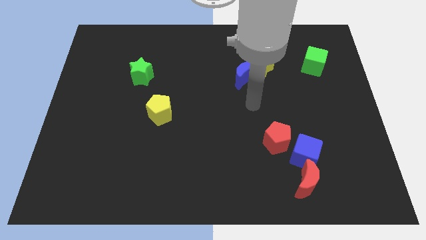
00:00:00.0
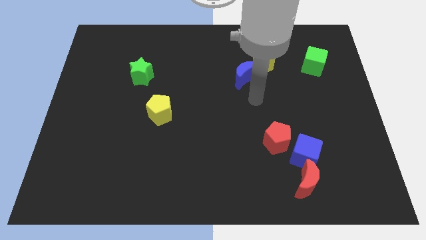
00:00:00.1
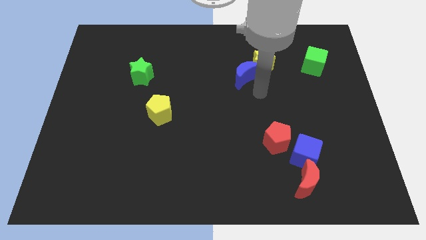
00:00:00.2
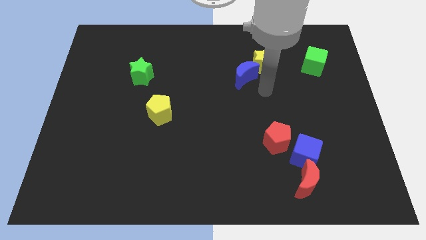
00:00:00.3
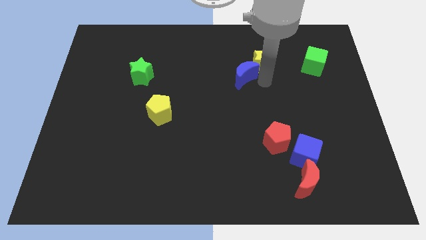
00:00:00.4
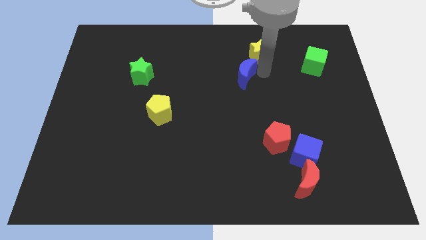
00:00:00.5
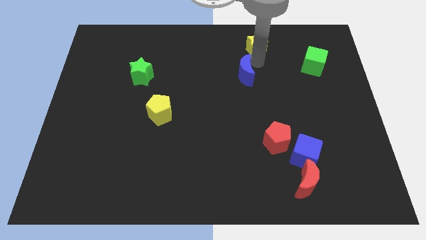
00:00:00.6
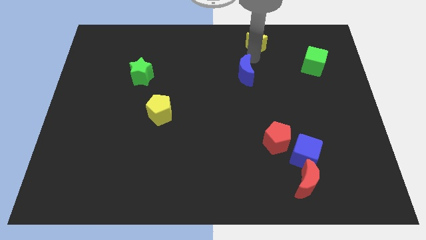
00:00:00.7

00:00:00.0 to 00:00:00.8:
pull the blue moon apart from the yellow star

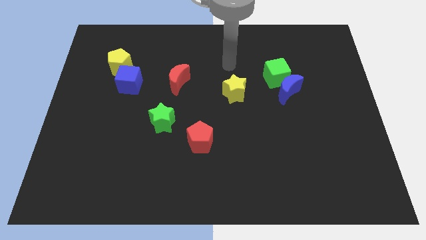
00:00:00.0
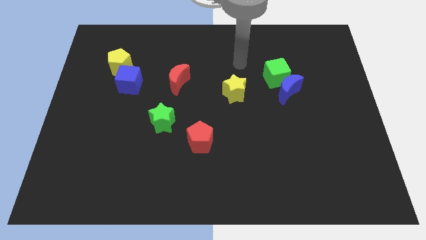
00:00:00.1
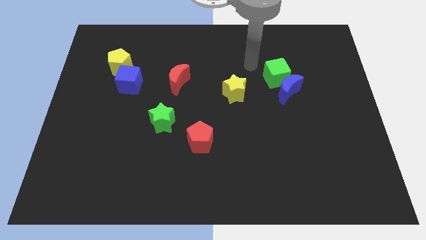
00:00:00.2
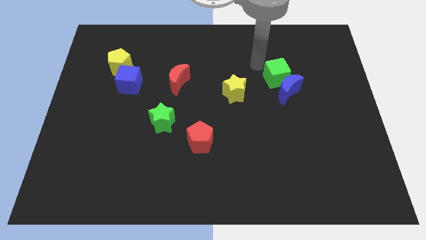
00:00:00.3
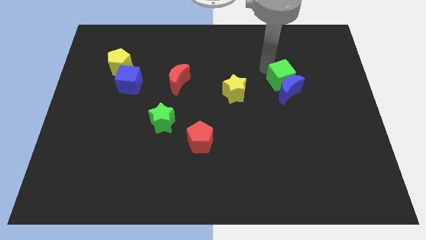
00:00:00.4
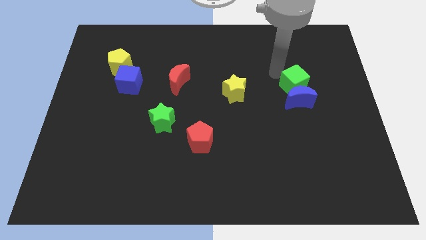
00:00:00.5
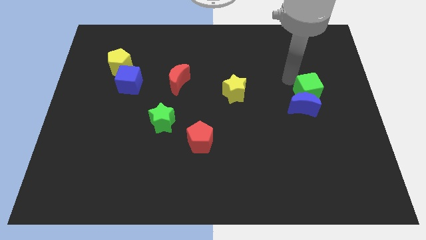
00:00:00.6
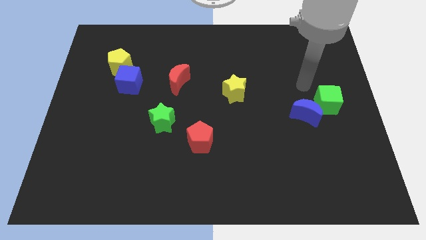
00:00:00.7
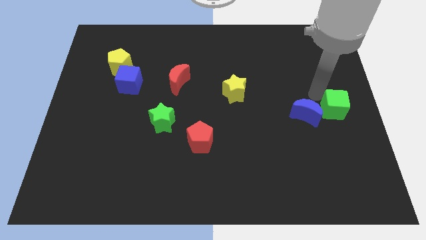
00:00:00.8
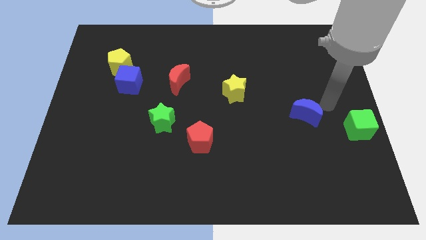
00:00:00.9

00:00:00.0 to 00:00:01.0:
separate the blue moon from the green cube

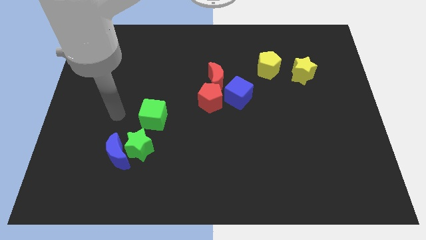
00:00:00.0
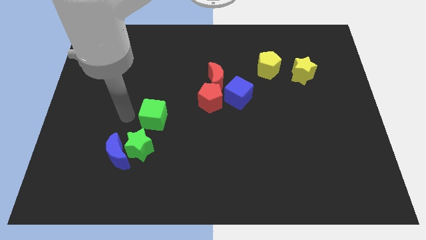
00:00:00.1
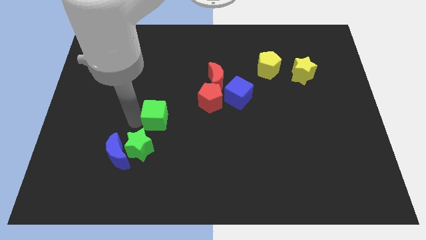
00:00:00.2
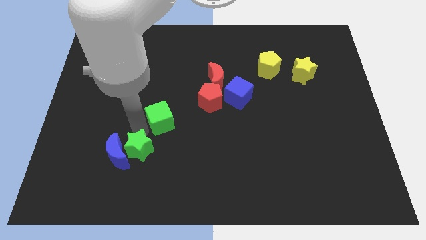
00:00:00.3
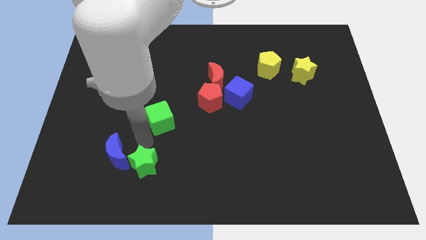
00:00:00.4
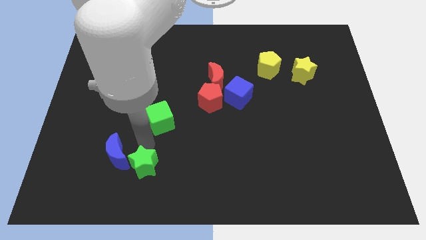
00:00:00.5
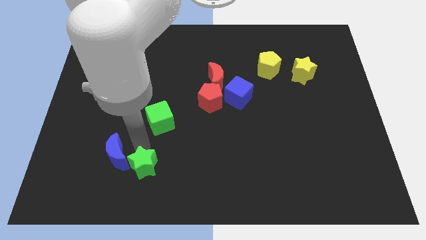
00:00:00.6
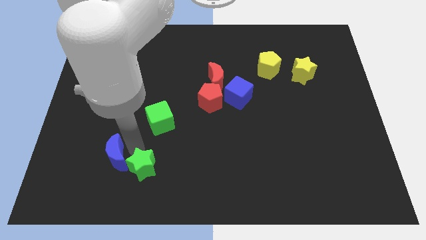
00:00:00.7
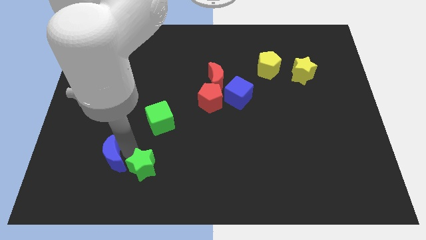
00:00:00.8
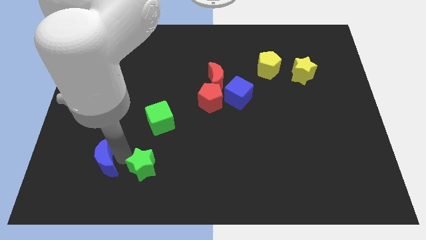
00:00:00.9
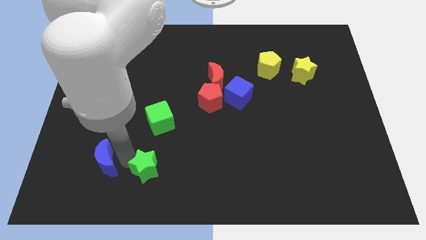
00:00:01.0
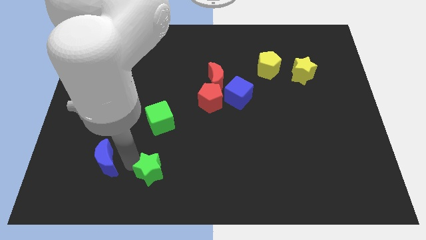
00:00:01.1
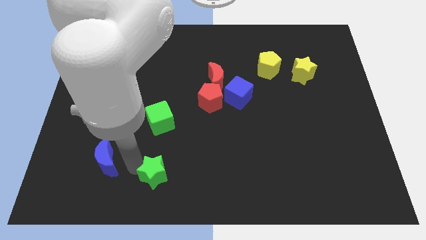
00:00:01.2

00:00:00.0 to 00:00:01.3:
separate the blue moon from the green star

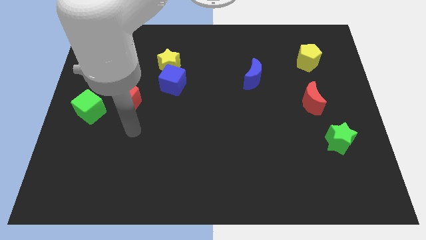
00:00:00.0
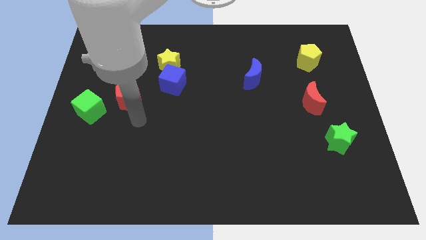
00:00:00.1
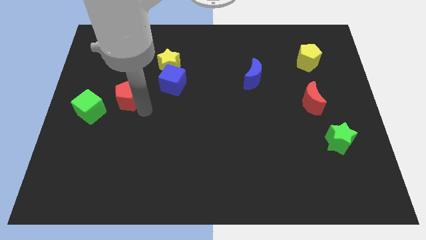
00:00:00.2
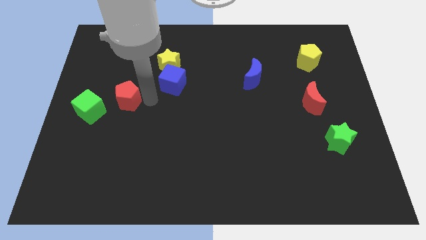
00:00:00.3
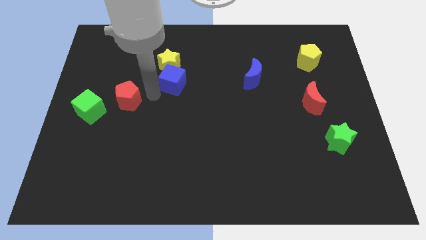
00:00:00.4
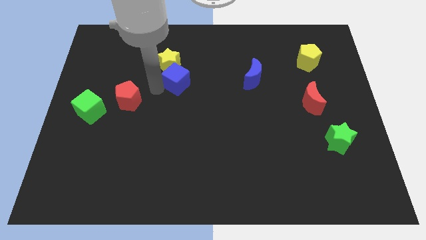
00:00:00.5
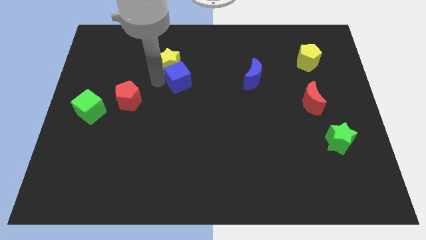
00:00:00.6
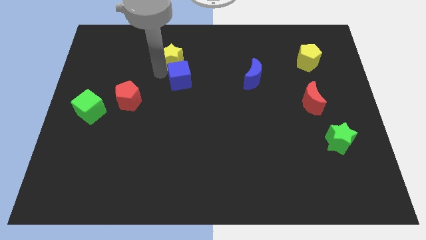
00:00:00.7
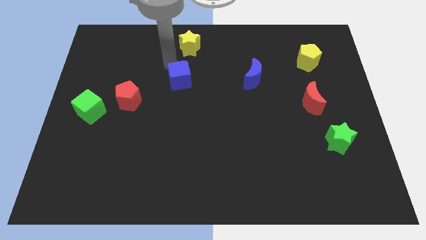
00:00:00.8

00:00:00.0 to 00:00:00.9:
pull the blue cube apart from the yellow star

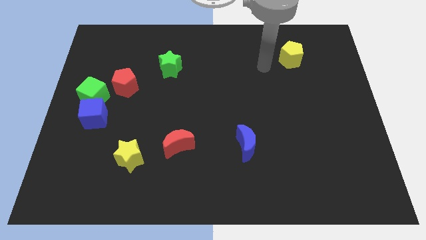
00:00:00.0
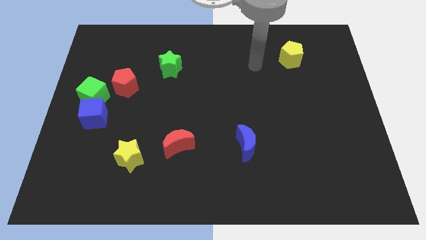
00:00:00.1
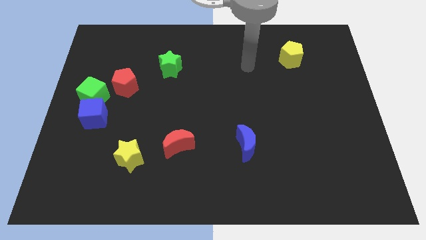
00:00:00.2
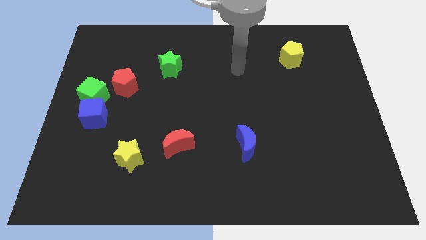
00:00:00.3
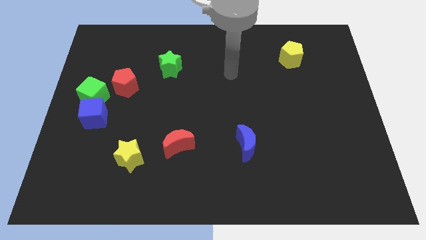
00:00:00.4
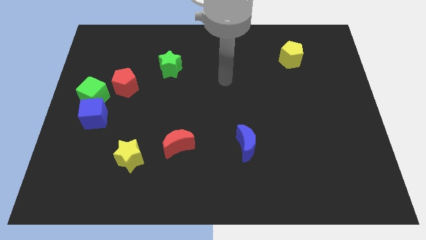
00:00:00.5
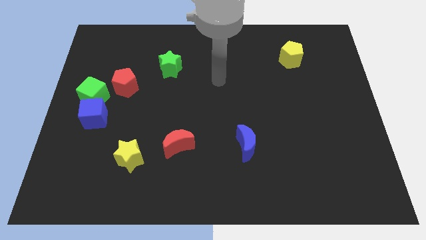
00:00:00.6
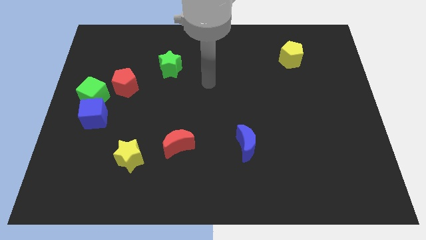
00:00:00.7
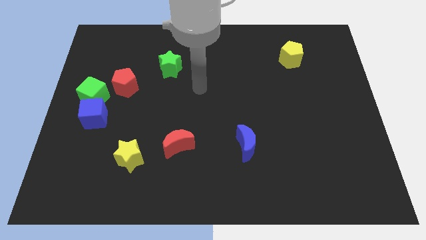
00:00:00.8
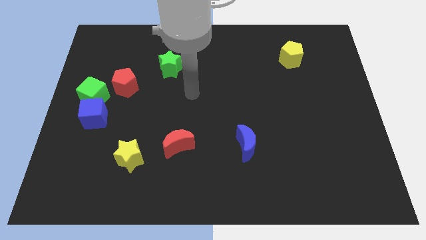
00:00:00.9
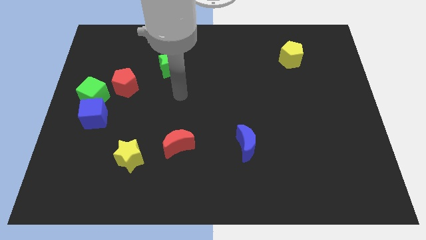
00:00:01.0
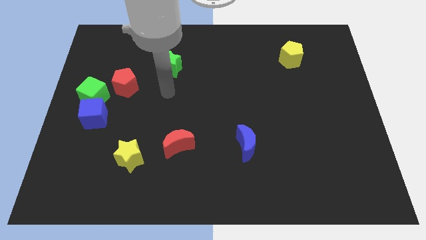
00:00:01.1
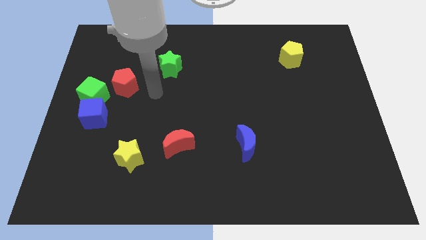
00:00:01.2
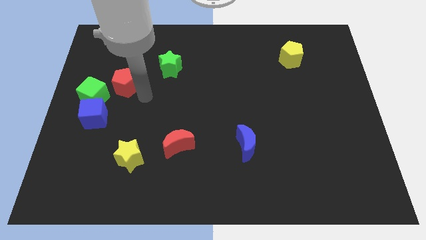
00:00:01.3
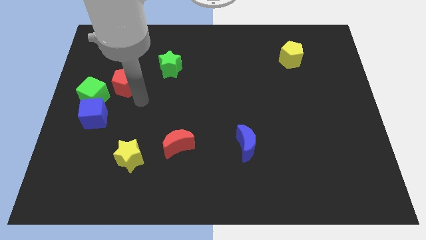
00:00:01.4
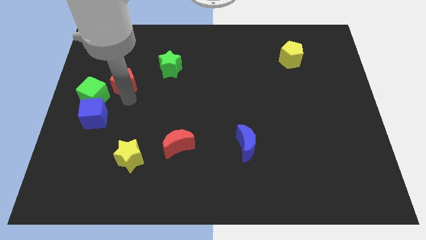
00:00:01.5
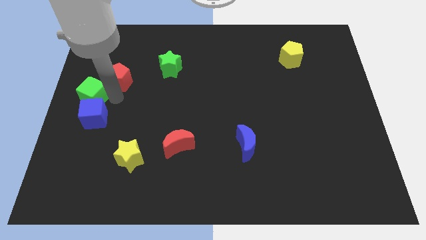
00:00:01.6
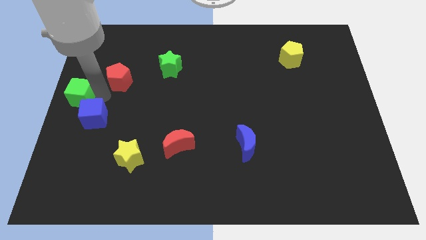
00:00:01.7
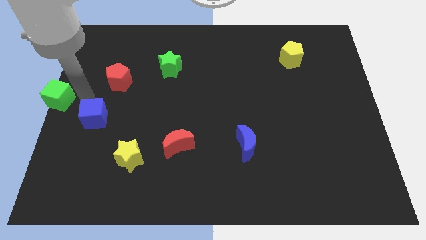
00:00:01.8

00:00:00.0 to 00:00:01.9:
pull the blue cube apart from the green cube

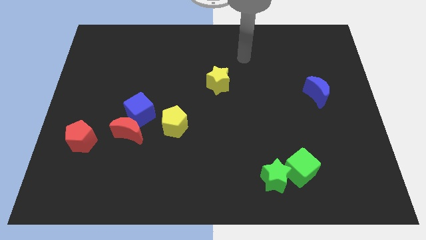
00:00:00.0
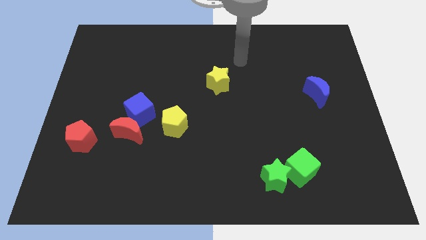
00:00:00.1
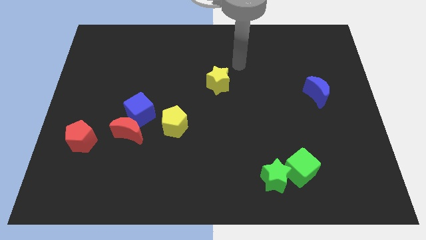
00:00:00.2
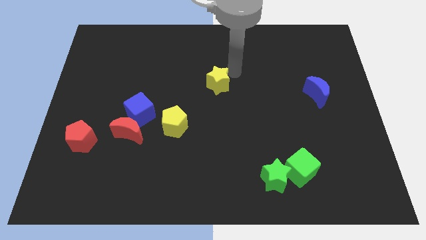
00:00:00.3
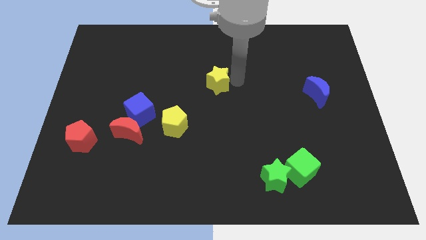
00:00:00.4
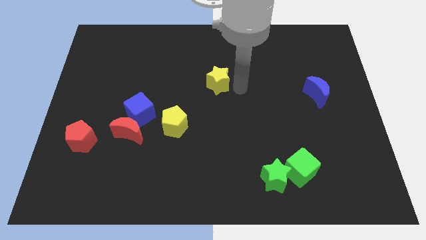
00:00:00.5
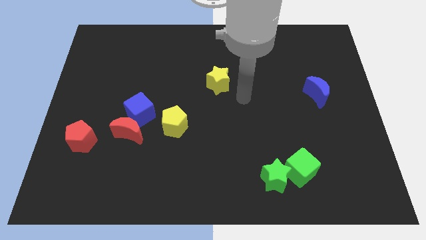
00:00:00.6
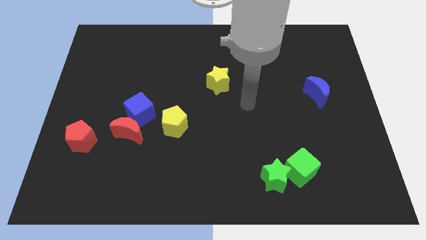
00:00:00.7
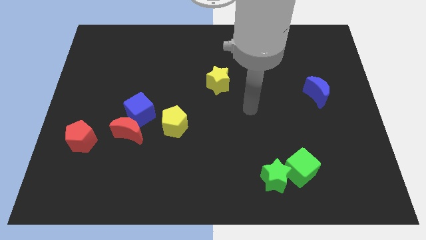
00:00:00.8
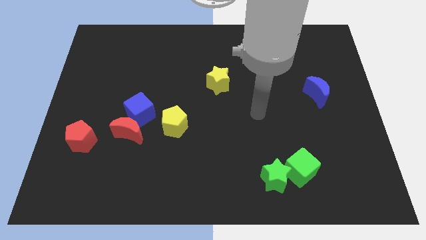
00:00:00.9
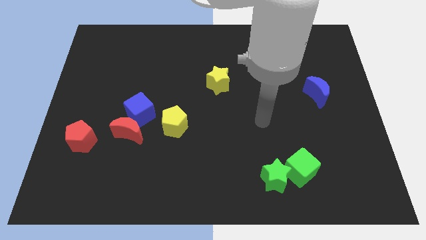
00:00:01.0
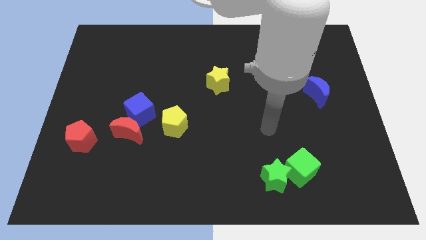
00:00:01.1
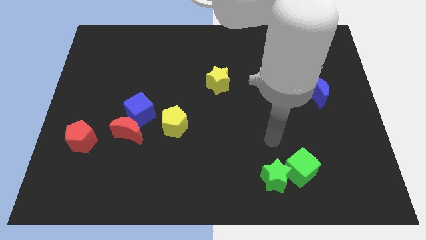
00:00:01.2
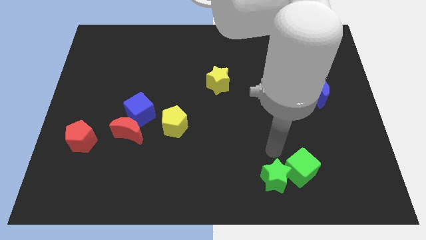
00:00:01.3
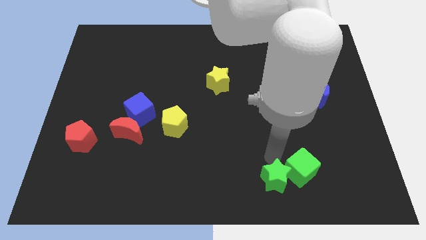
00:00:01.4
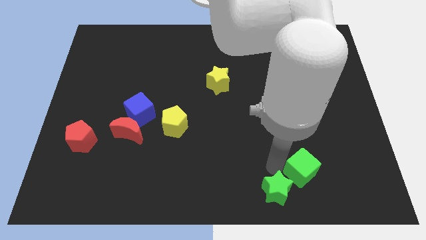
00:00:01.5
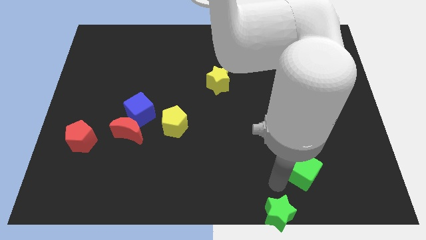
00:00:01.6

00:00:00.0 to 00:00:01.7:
pull the green cube apart from the green star

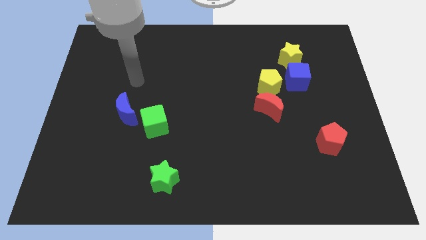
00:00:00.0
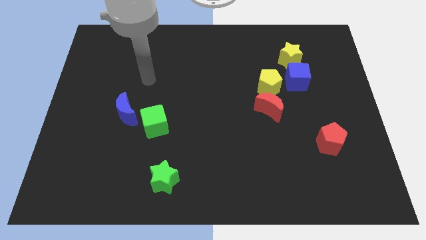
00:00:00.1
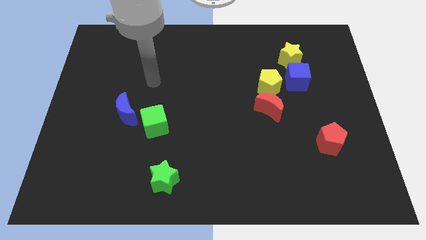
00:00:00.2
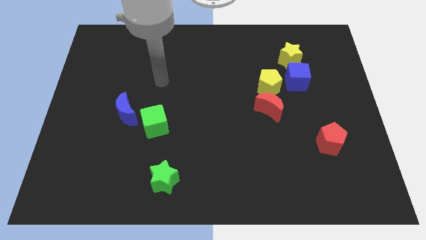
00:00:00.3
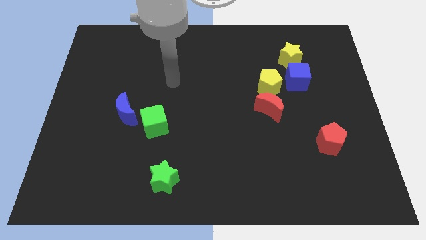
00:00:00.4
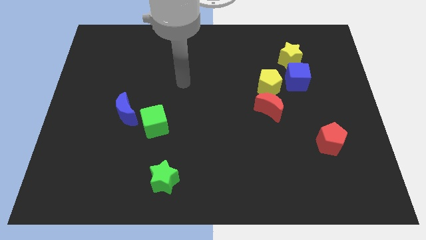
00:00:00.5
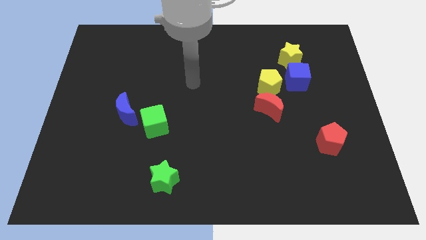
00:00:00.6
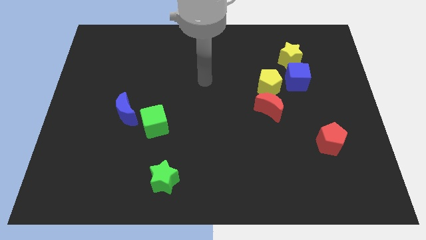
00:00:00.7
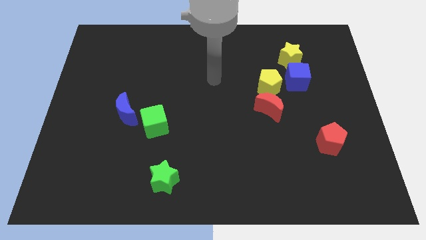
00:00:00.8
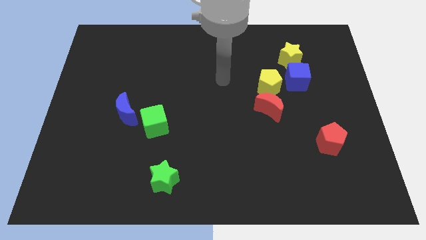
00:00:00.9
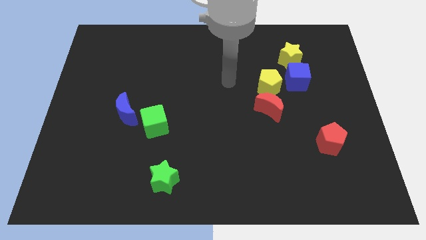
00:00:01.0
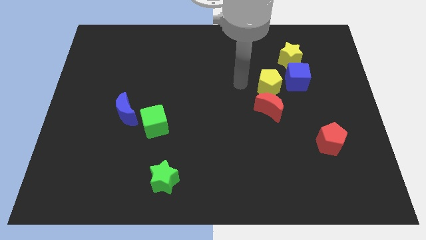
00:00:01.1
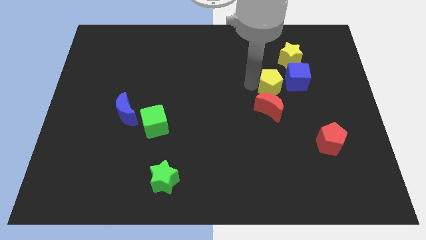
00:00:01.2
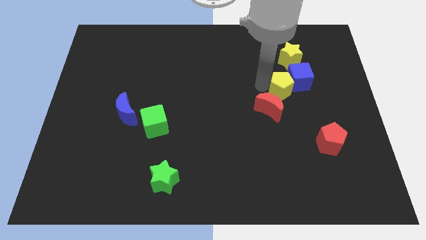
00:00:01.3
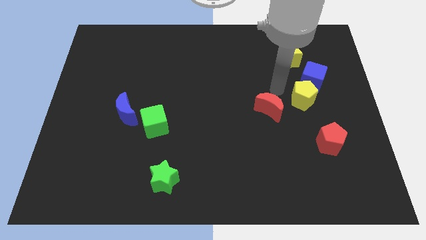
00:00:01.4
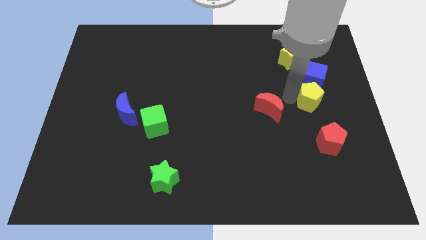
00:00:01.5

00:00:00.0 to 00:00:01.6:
move the red moon away from the yellow pentagon
